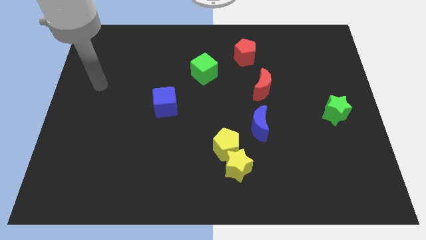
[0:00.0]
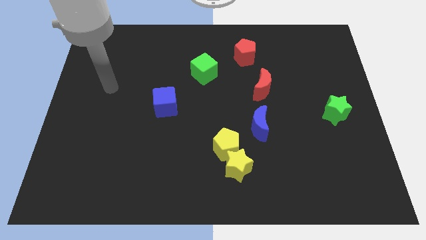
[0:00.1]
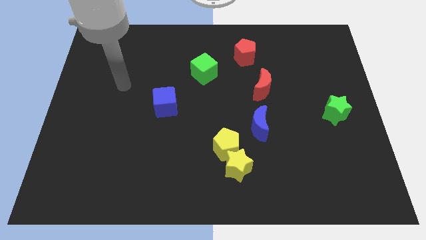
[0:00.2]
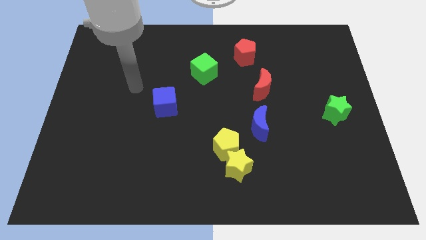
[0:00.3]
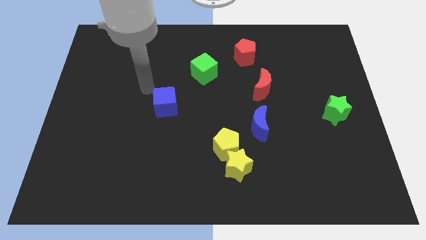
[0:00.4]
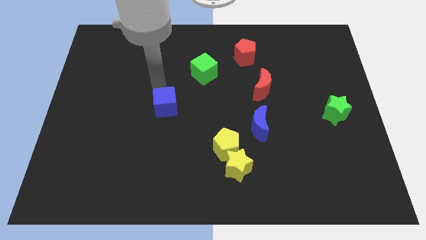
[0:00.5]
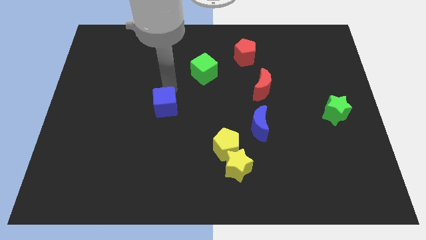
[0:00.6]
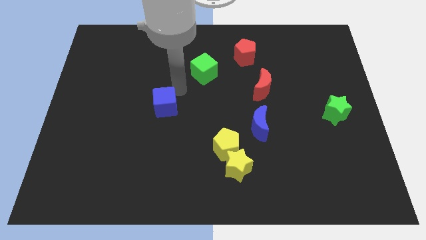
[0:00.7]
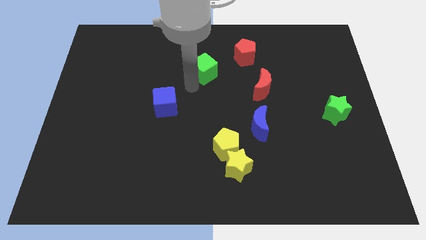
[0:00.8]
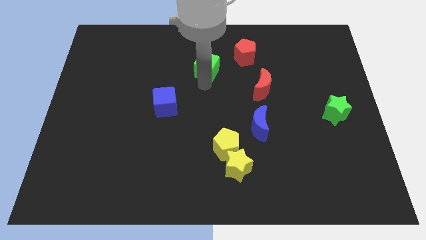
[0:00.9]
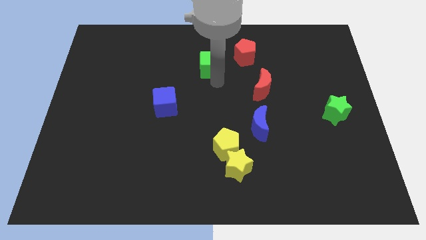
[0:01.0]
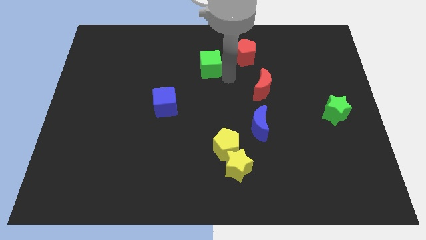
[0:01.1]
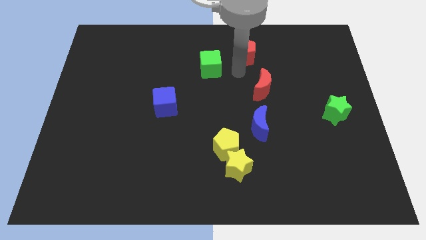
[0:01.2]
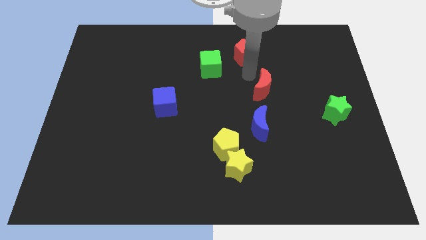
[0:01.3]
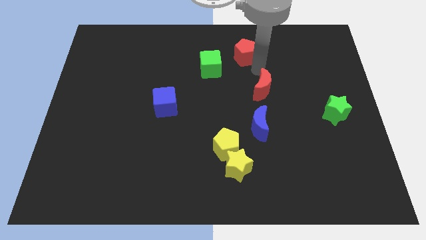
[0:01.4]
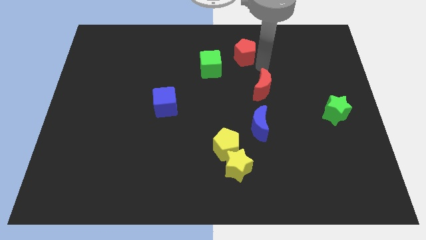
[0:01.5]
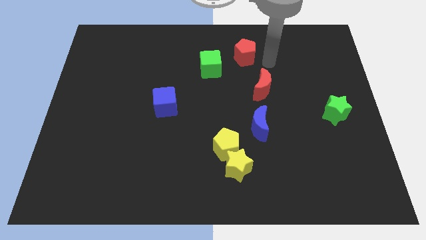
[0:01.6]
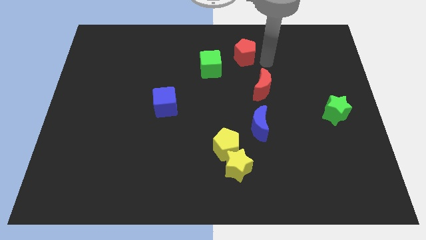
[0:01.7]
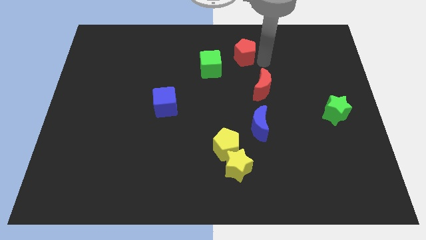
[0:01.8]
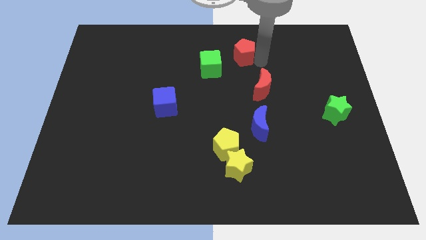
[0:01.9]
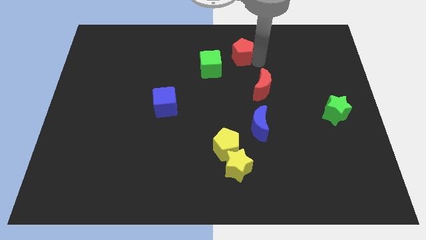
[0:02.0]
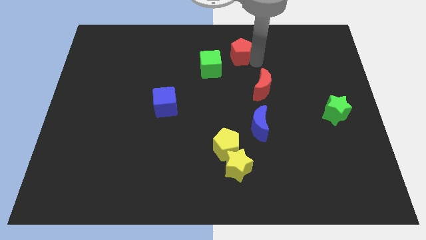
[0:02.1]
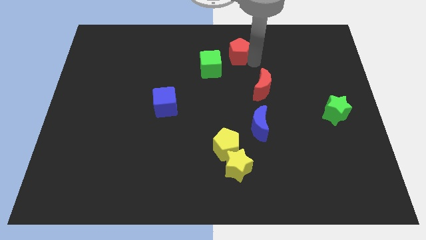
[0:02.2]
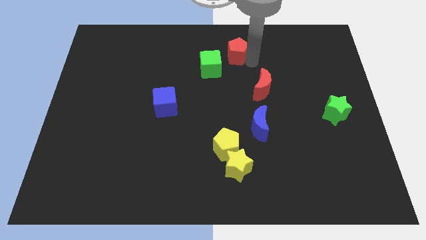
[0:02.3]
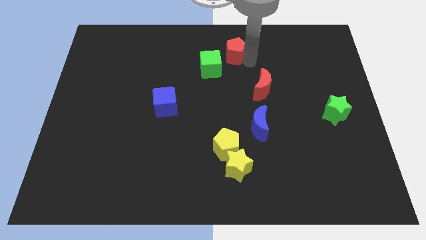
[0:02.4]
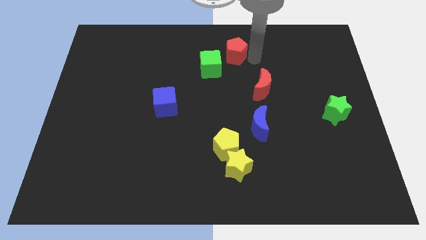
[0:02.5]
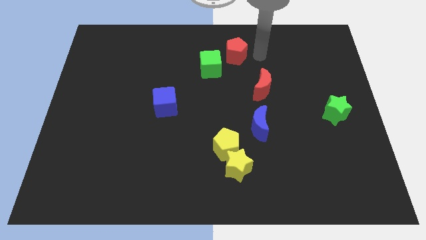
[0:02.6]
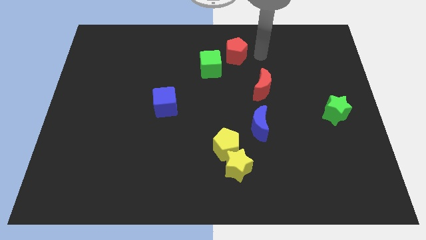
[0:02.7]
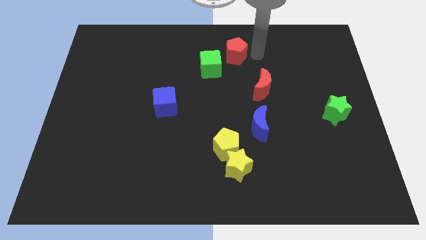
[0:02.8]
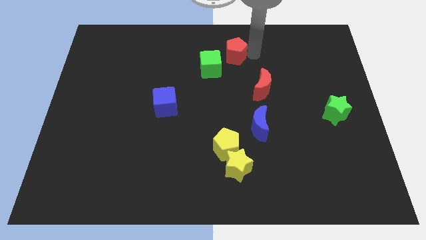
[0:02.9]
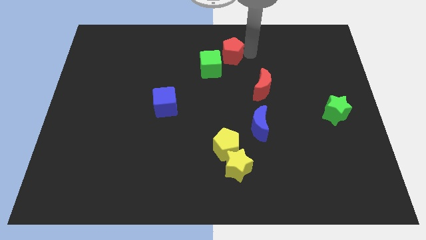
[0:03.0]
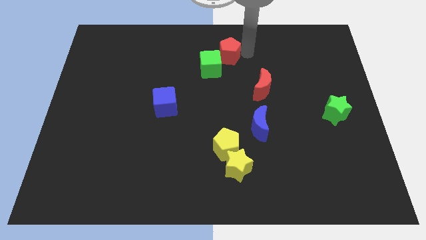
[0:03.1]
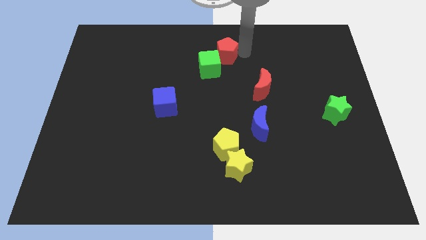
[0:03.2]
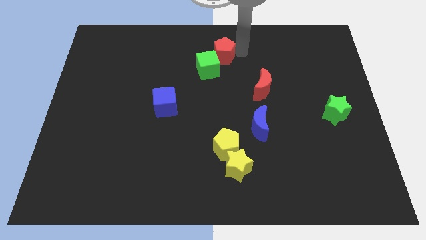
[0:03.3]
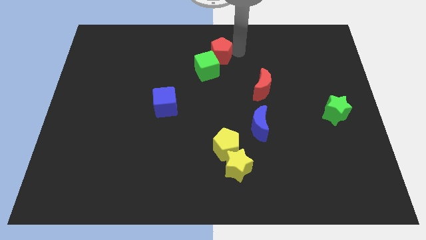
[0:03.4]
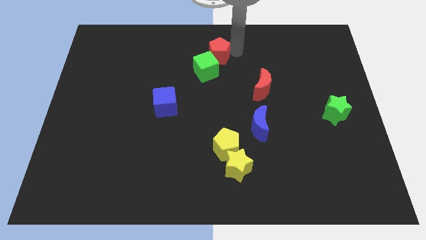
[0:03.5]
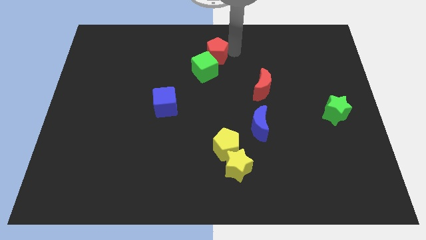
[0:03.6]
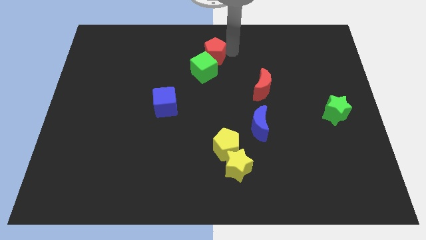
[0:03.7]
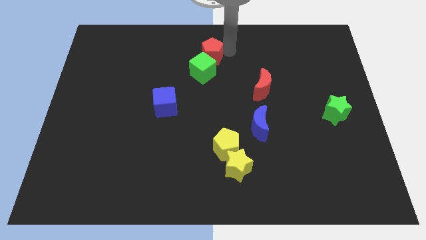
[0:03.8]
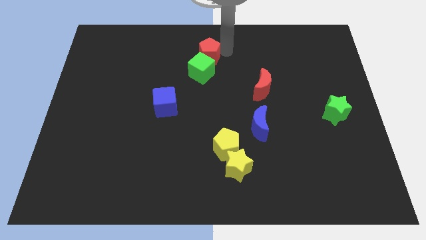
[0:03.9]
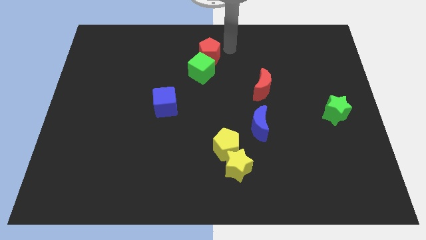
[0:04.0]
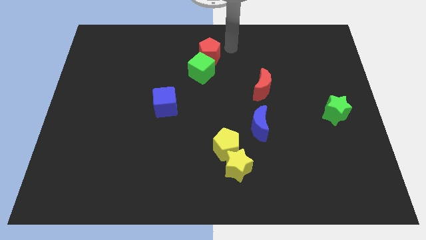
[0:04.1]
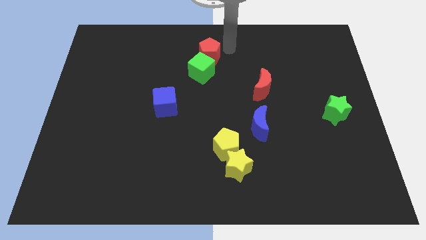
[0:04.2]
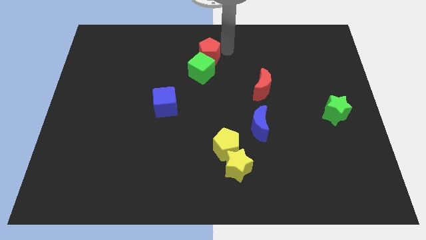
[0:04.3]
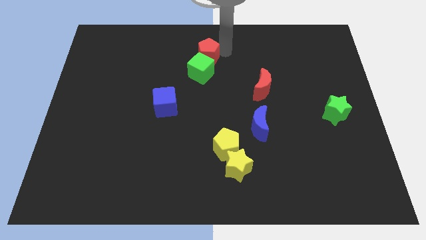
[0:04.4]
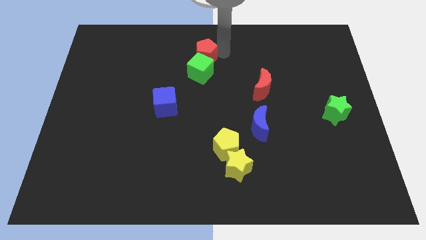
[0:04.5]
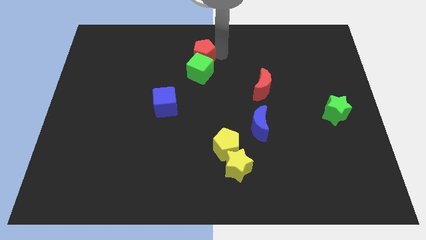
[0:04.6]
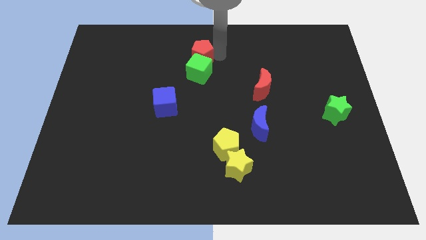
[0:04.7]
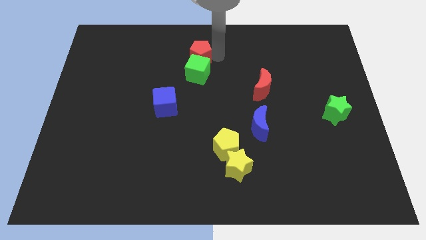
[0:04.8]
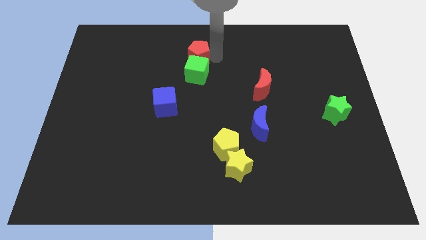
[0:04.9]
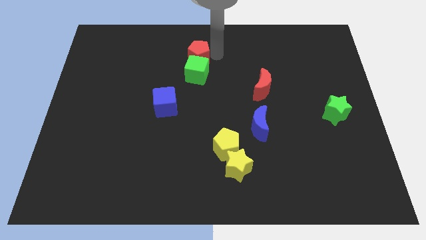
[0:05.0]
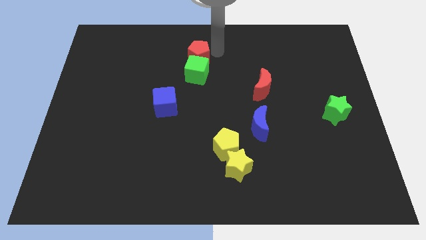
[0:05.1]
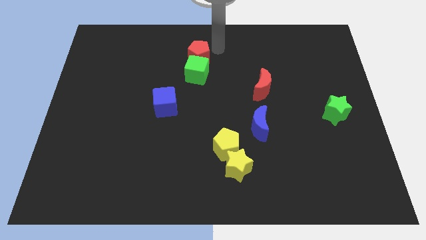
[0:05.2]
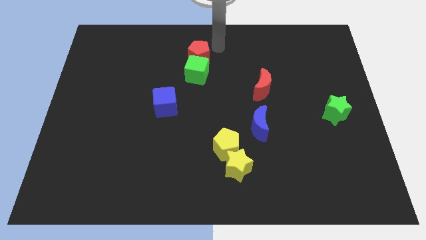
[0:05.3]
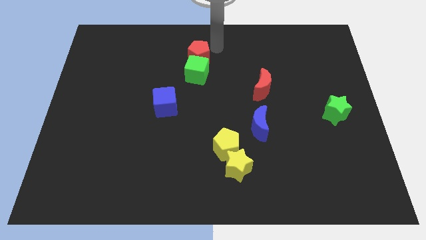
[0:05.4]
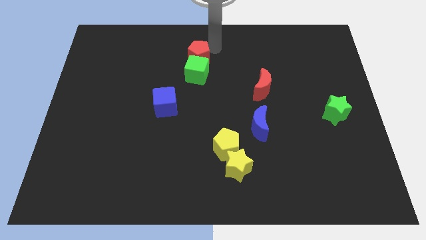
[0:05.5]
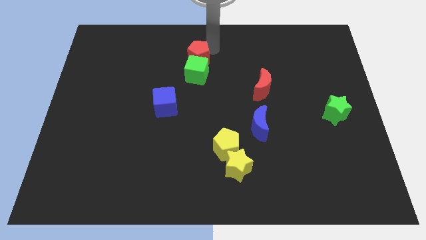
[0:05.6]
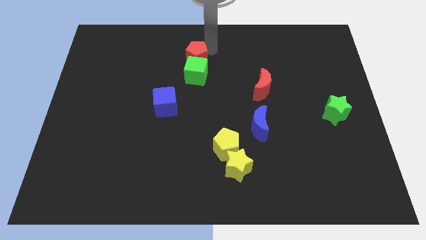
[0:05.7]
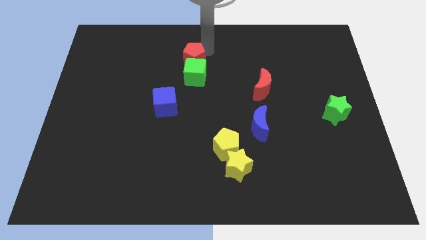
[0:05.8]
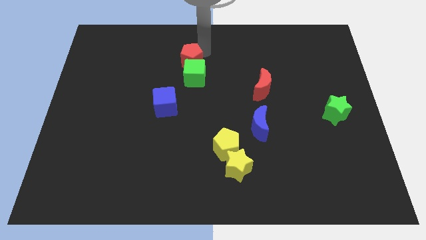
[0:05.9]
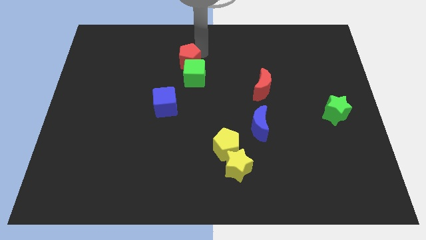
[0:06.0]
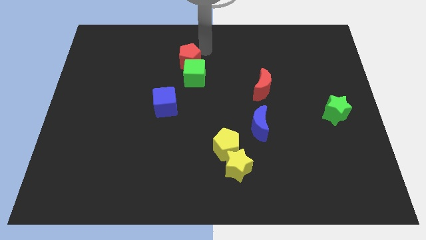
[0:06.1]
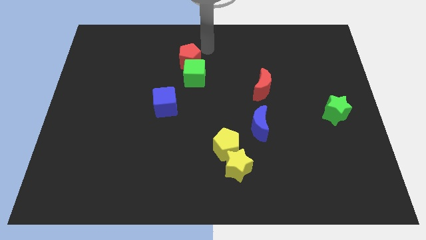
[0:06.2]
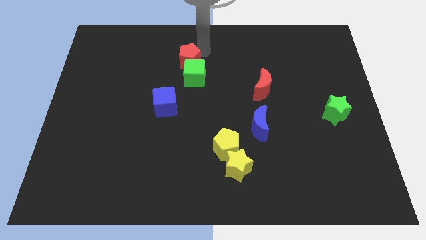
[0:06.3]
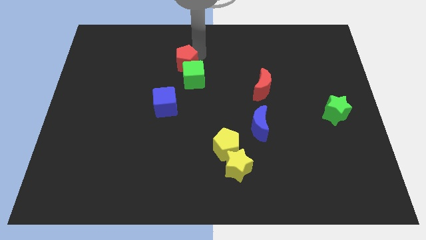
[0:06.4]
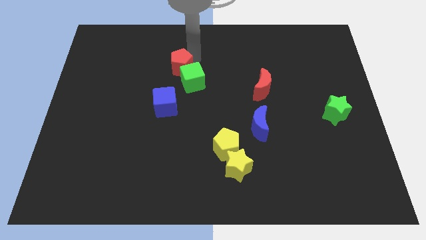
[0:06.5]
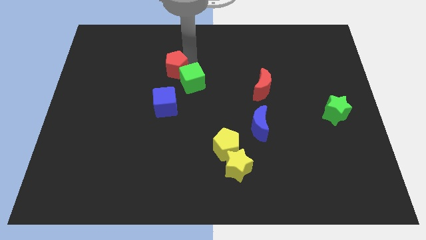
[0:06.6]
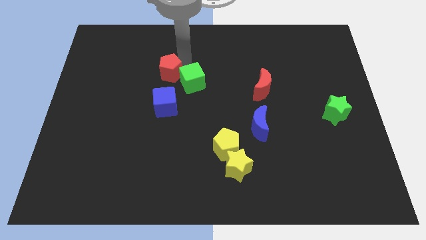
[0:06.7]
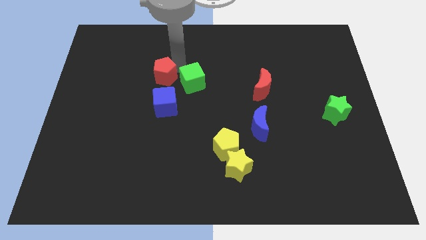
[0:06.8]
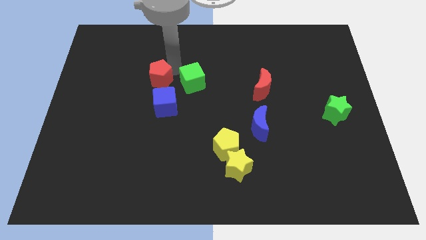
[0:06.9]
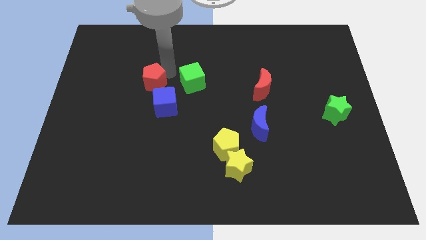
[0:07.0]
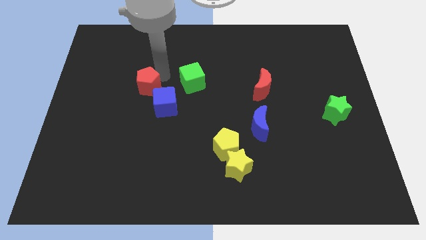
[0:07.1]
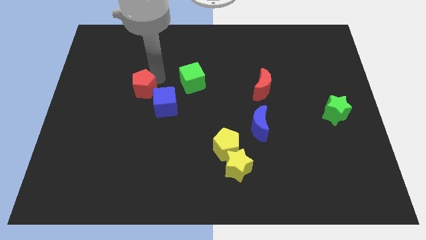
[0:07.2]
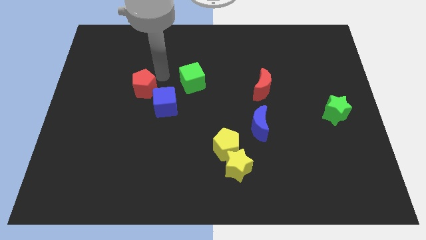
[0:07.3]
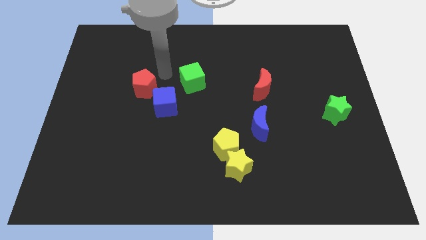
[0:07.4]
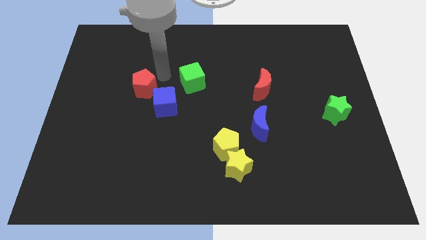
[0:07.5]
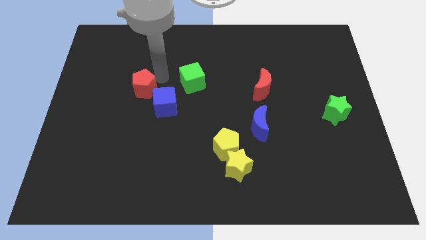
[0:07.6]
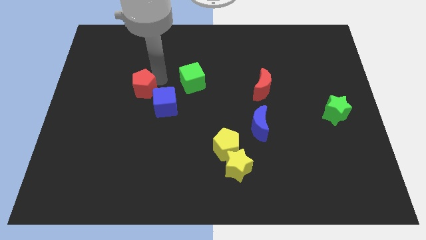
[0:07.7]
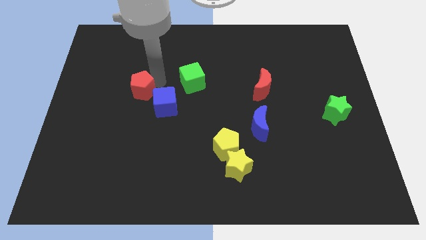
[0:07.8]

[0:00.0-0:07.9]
slide the red pentagon to the left of the blue cube
